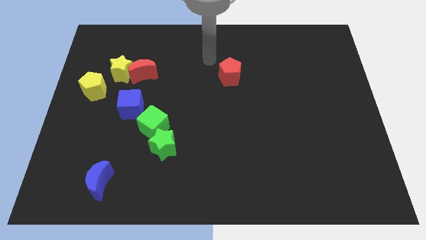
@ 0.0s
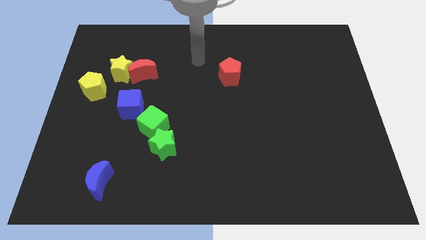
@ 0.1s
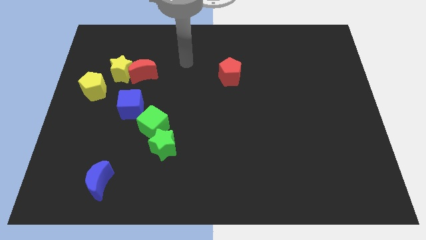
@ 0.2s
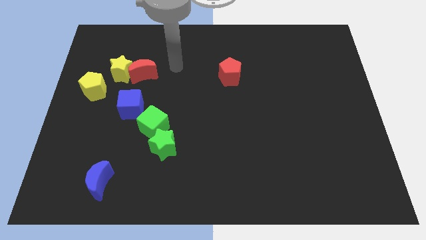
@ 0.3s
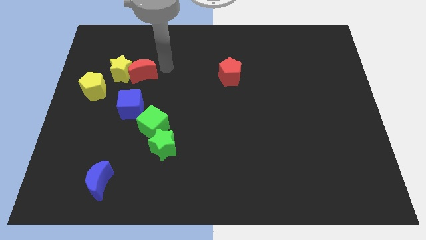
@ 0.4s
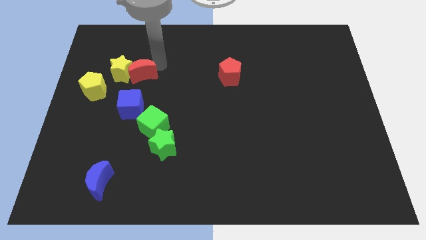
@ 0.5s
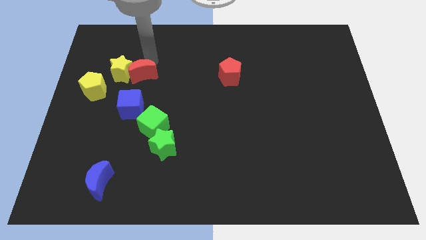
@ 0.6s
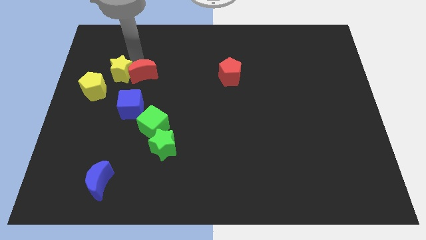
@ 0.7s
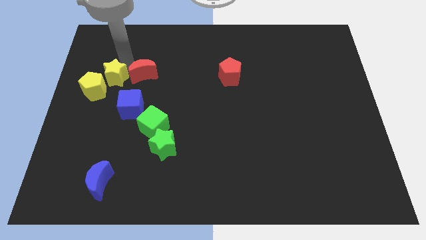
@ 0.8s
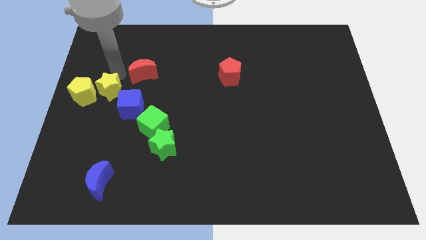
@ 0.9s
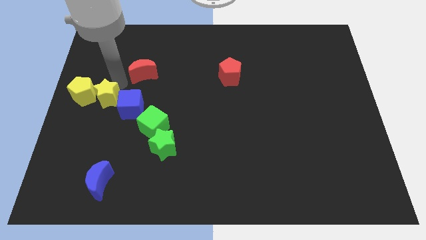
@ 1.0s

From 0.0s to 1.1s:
move the red moon away from the yellow star

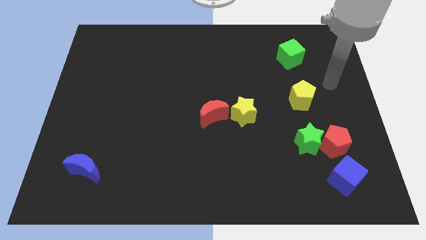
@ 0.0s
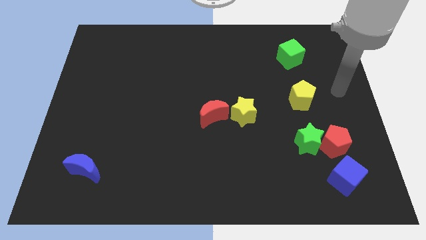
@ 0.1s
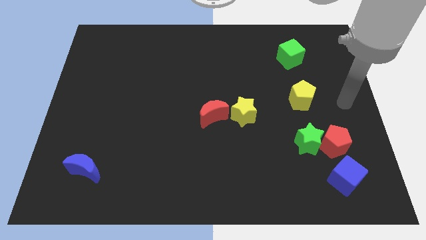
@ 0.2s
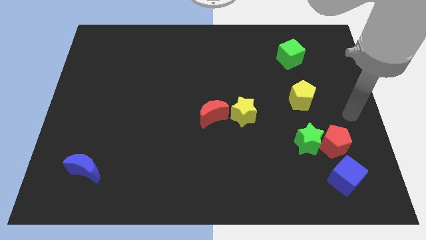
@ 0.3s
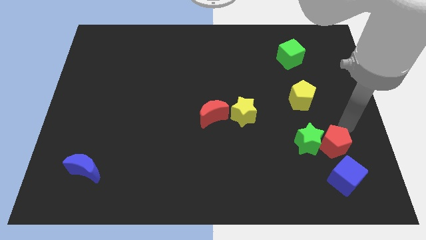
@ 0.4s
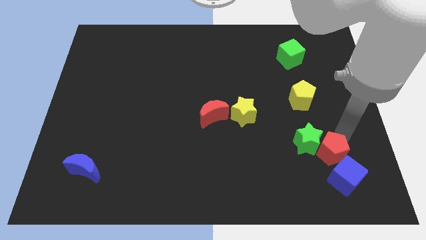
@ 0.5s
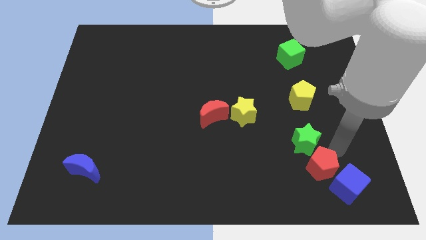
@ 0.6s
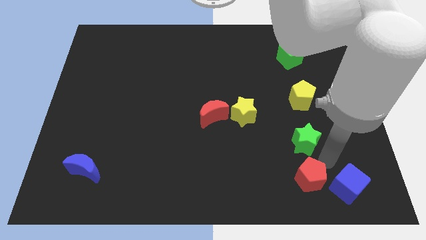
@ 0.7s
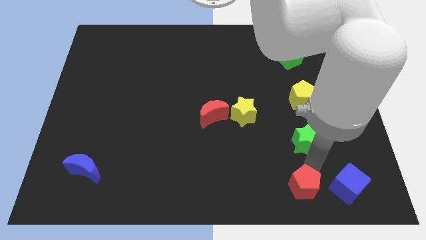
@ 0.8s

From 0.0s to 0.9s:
pull the green star apart from the red pentagon

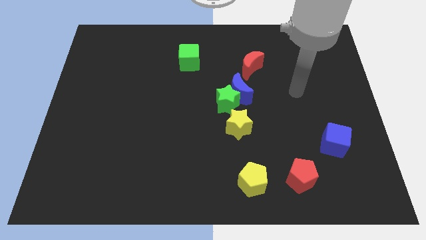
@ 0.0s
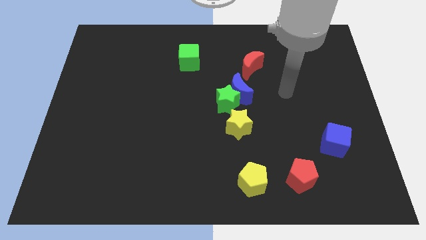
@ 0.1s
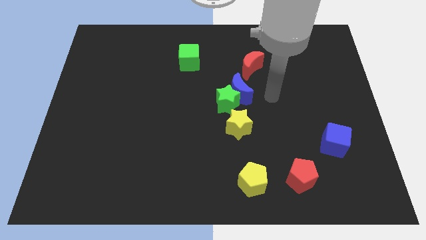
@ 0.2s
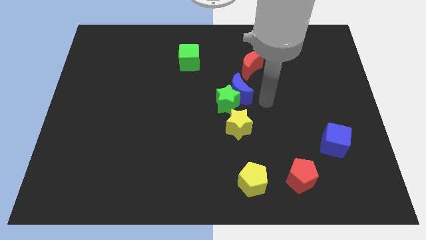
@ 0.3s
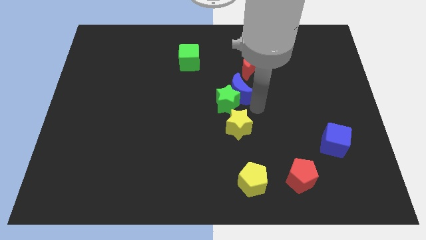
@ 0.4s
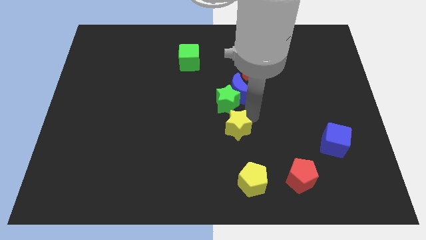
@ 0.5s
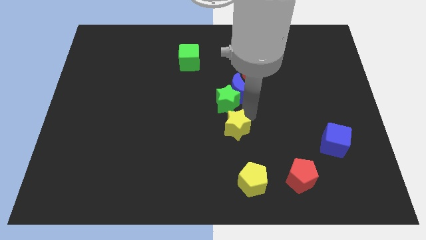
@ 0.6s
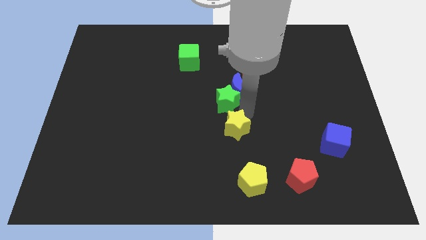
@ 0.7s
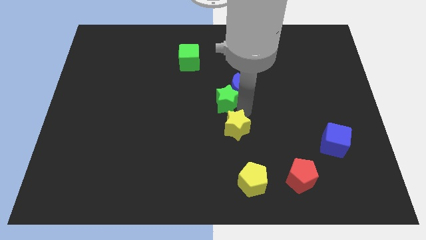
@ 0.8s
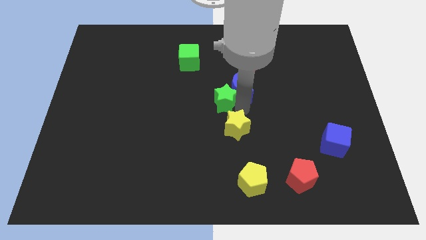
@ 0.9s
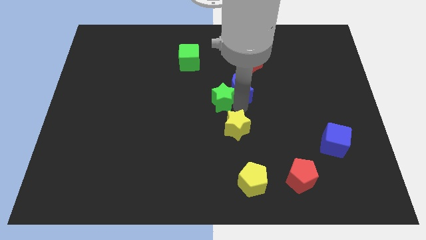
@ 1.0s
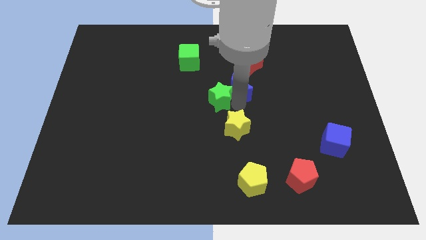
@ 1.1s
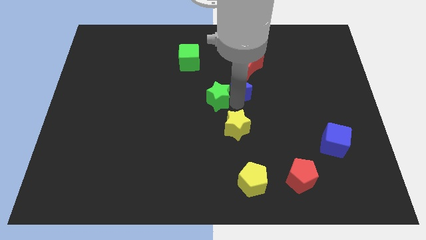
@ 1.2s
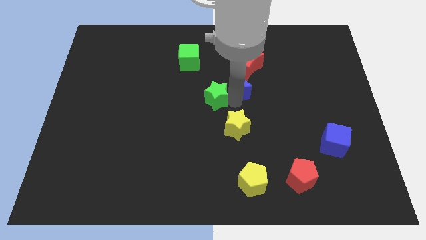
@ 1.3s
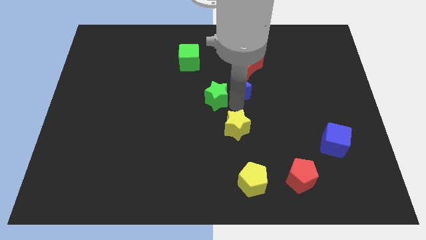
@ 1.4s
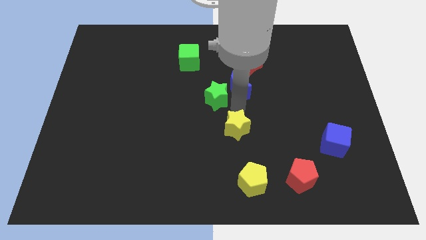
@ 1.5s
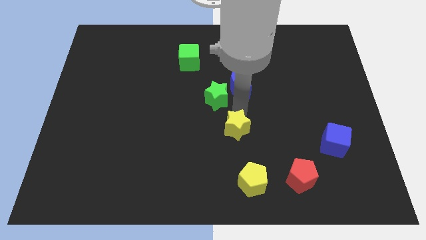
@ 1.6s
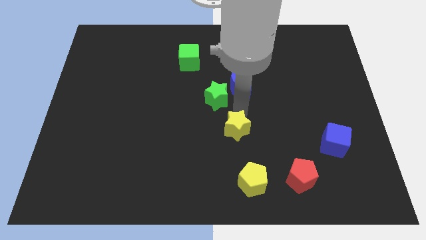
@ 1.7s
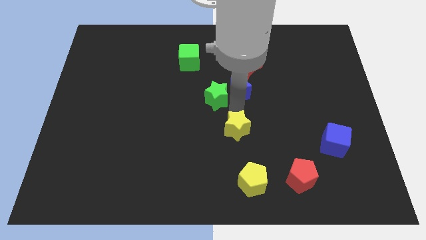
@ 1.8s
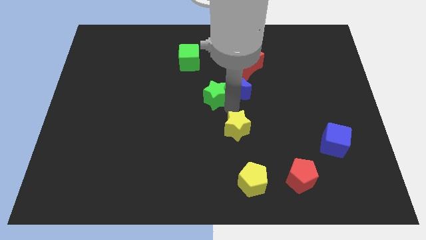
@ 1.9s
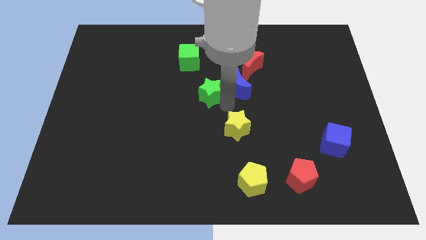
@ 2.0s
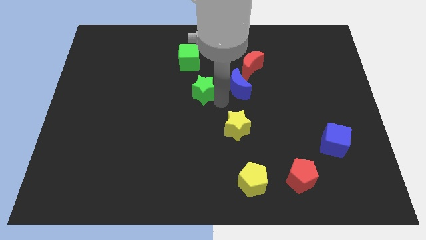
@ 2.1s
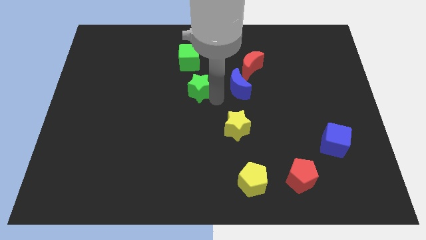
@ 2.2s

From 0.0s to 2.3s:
pull the green star apart from the blue moon and yellow star

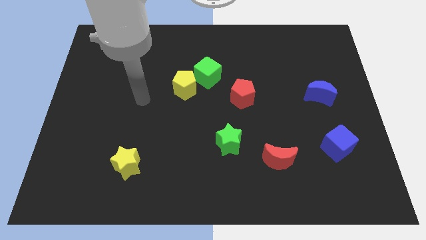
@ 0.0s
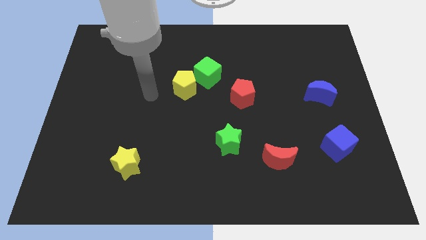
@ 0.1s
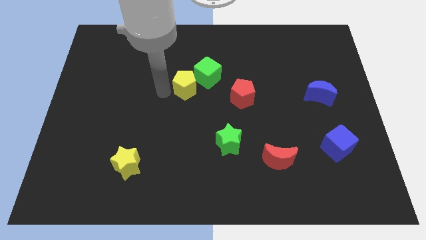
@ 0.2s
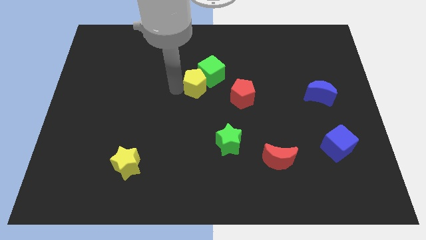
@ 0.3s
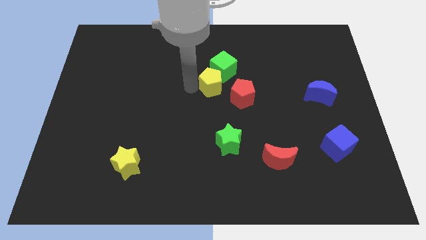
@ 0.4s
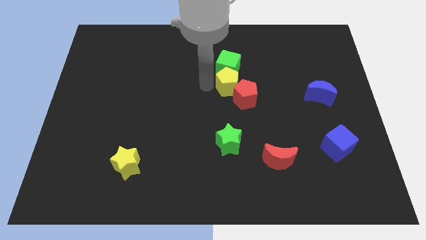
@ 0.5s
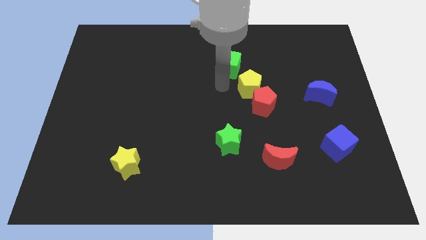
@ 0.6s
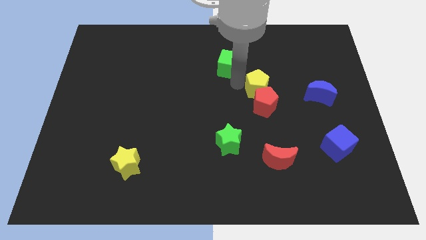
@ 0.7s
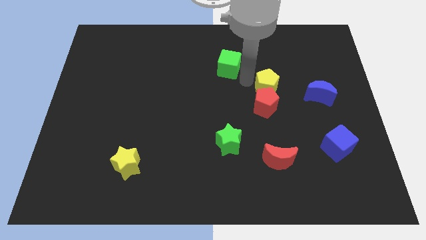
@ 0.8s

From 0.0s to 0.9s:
pull the green cube apart from the yellow pentagon

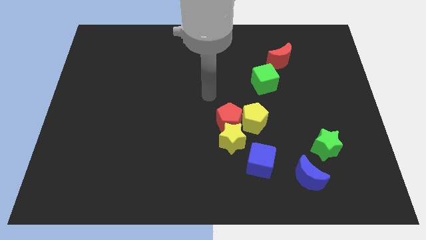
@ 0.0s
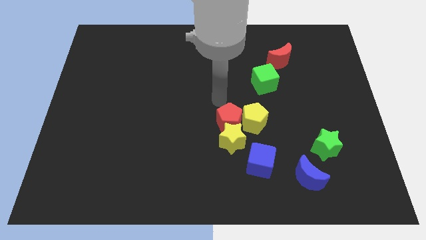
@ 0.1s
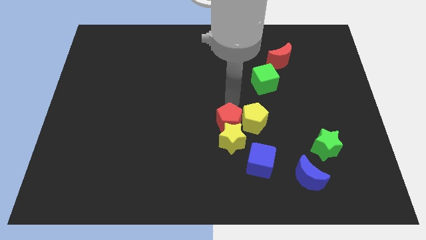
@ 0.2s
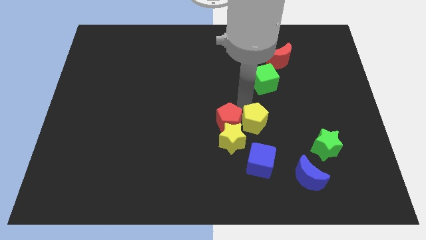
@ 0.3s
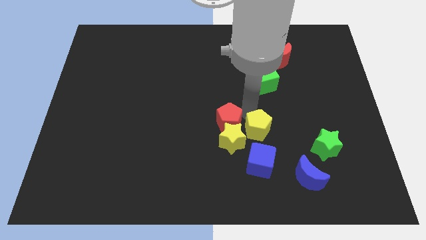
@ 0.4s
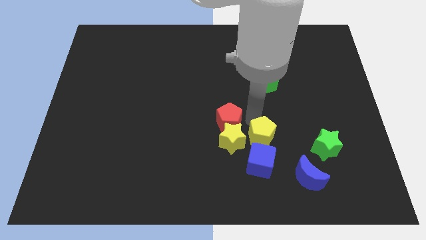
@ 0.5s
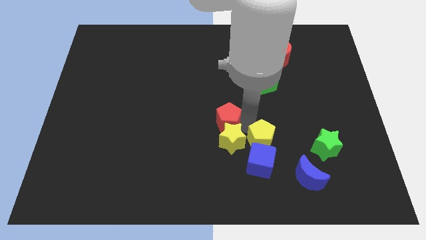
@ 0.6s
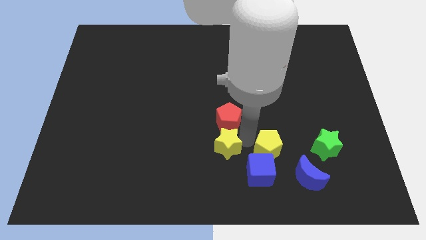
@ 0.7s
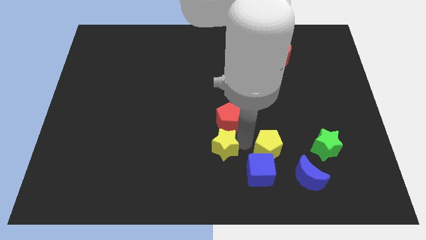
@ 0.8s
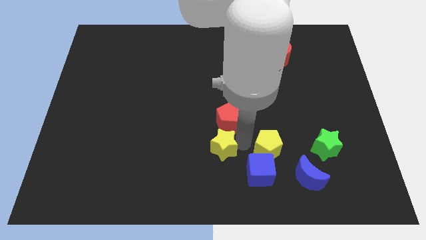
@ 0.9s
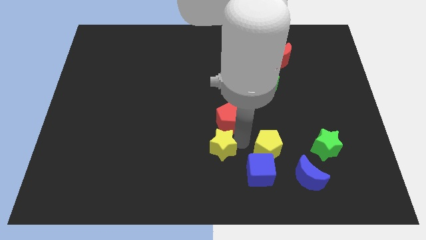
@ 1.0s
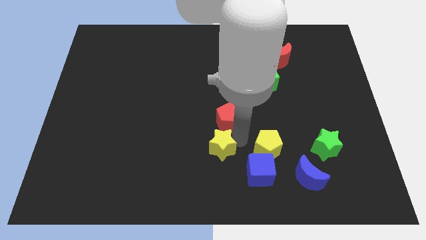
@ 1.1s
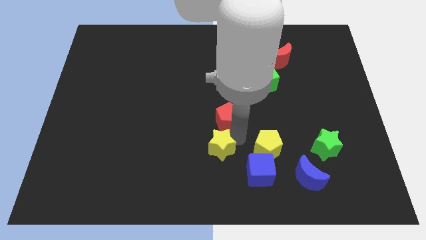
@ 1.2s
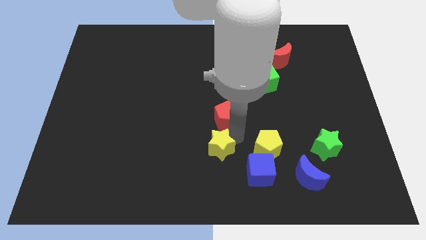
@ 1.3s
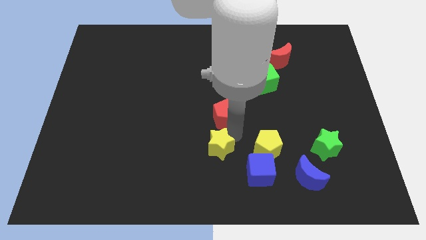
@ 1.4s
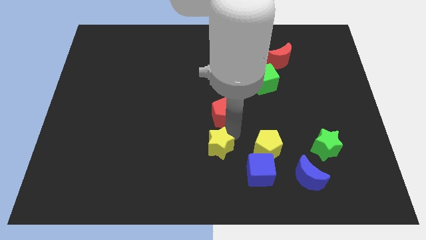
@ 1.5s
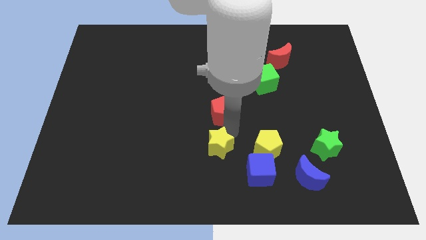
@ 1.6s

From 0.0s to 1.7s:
move the red pentagon away from the yellow pentagon and yellow star

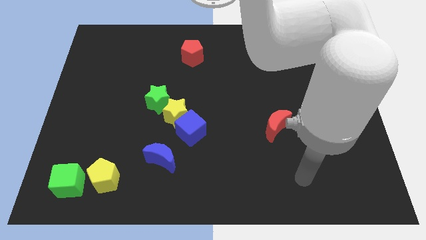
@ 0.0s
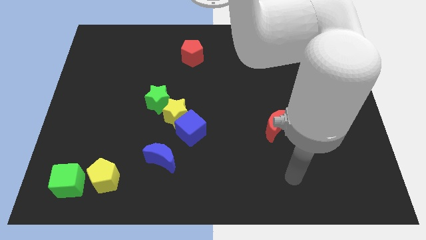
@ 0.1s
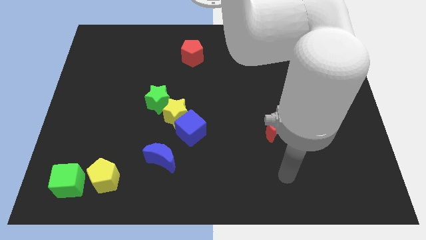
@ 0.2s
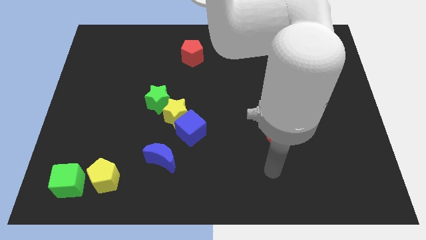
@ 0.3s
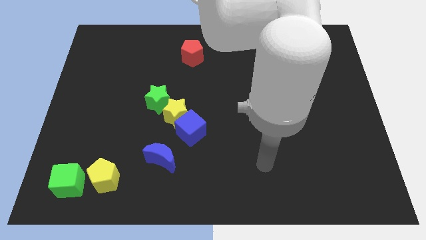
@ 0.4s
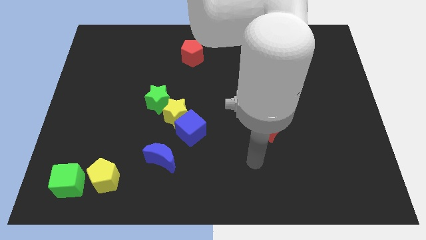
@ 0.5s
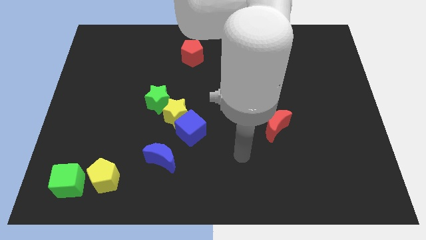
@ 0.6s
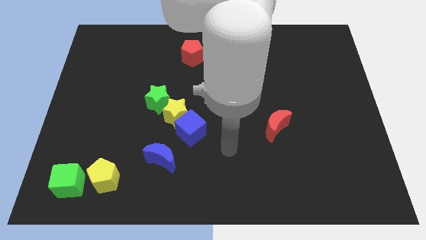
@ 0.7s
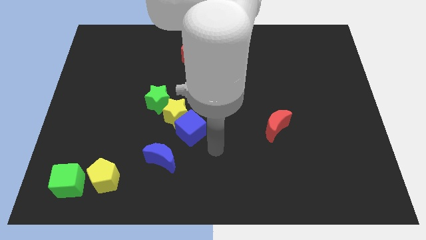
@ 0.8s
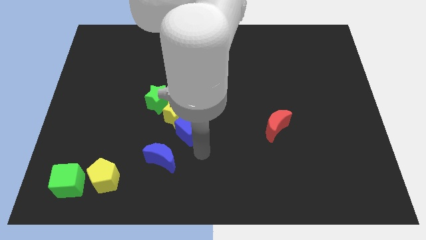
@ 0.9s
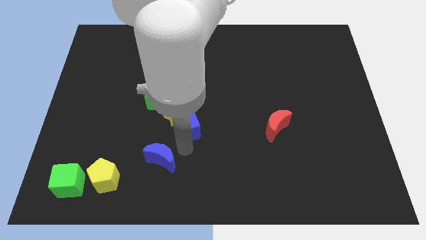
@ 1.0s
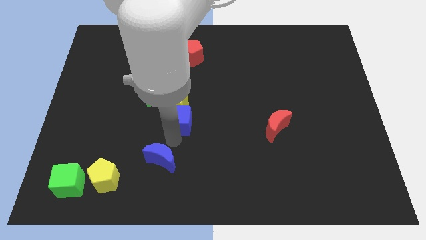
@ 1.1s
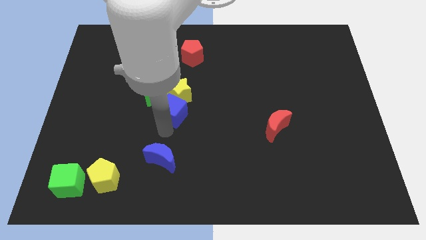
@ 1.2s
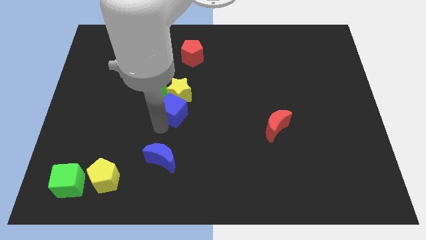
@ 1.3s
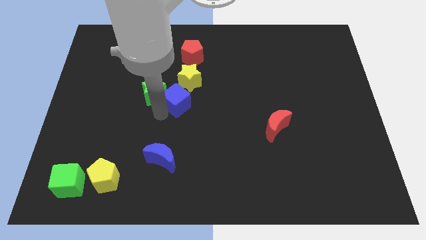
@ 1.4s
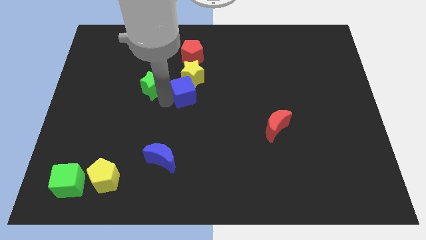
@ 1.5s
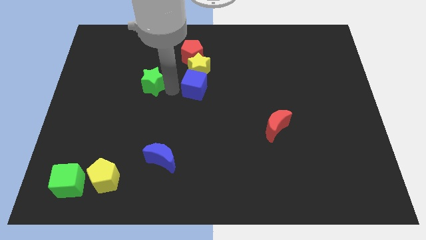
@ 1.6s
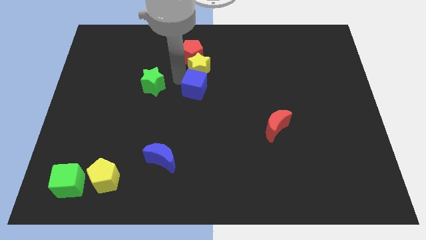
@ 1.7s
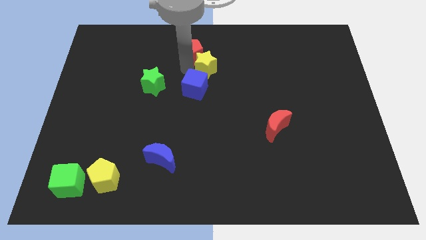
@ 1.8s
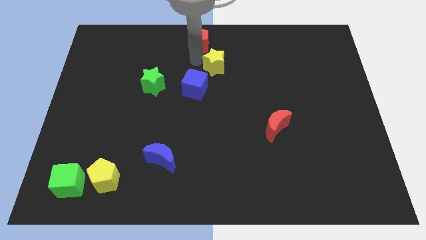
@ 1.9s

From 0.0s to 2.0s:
pull the yellow star apart from the blue cube and green star

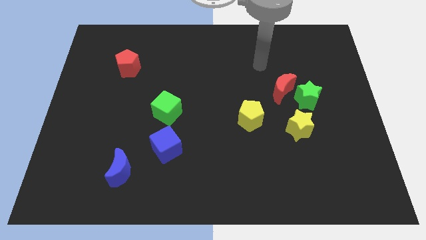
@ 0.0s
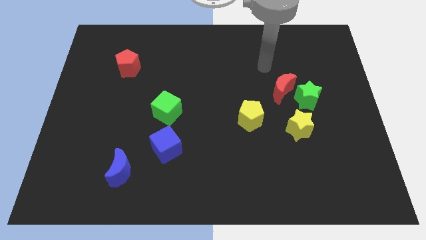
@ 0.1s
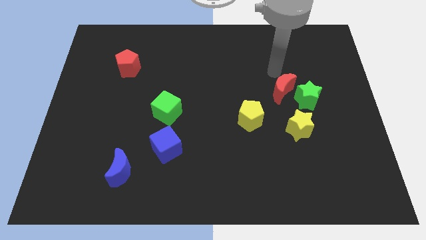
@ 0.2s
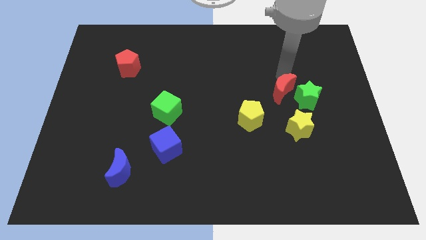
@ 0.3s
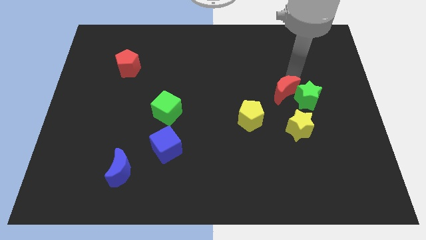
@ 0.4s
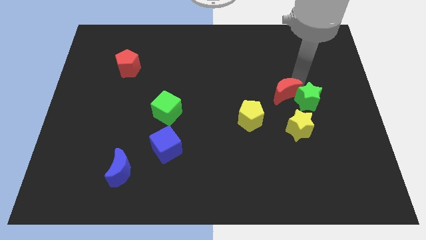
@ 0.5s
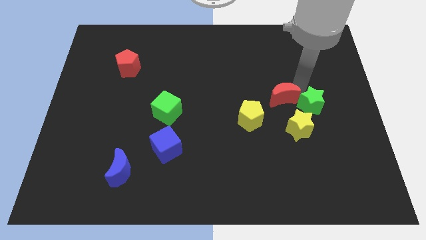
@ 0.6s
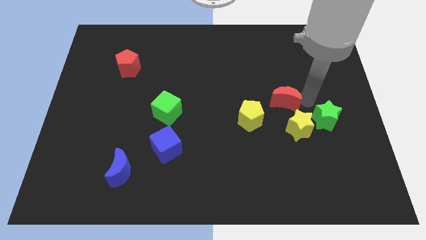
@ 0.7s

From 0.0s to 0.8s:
separate the red moon from the green star
